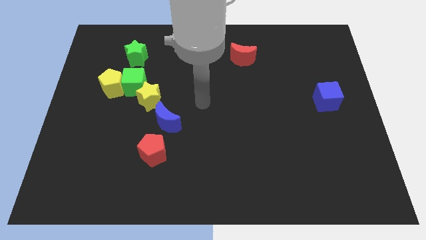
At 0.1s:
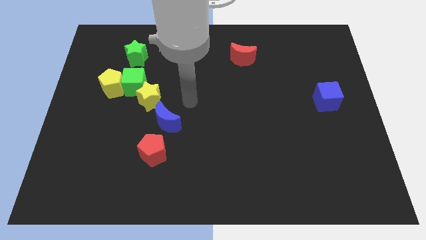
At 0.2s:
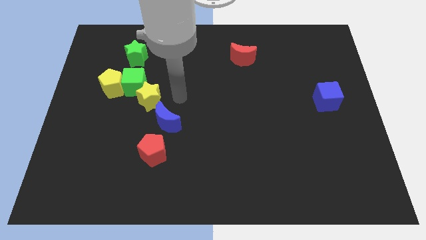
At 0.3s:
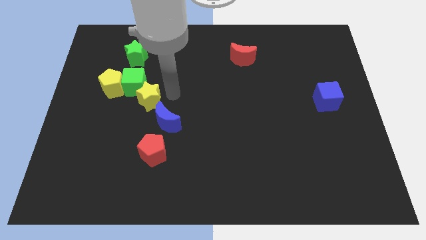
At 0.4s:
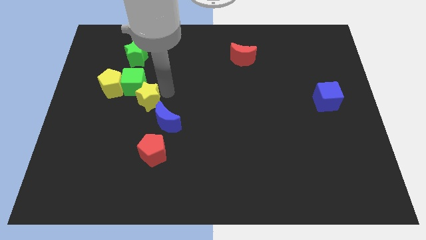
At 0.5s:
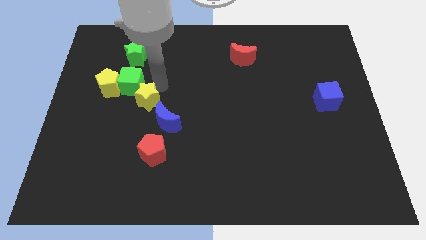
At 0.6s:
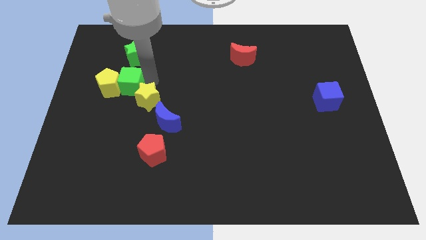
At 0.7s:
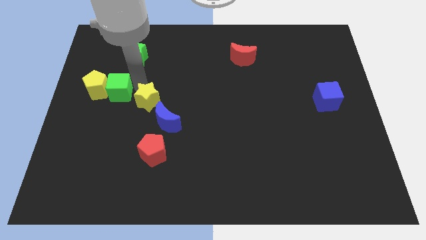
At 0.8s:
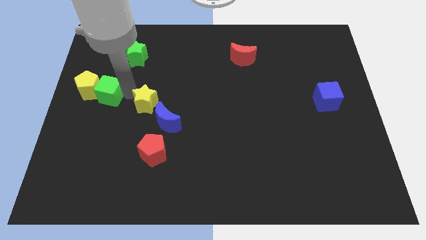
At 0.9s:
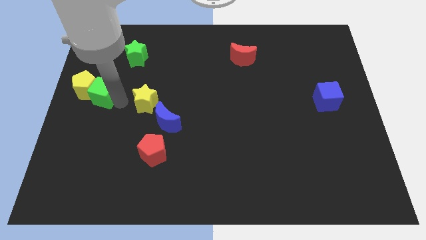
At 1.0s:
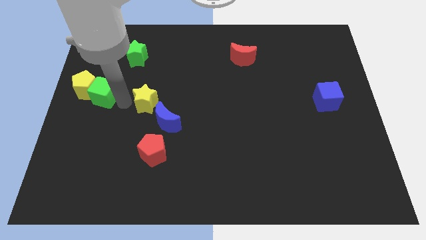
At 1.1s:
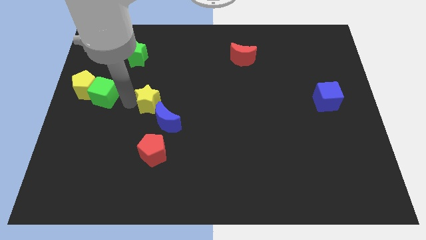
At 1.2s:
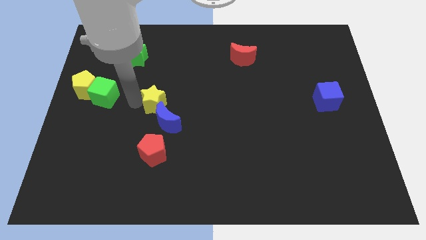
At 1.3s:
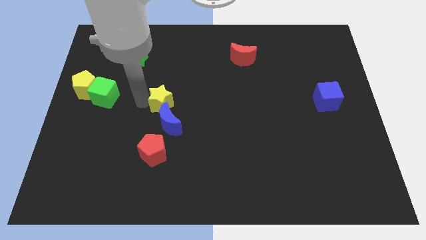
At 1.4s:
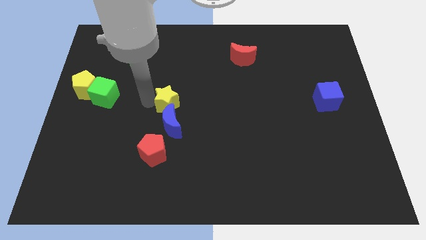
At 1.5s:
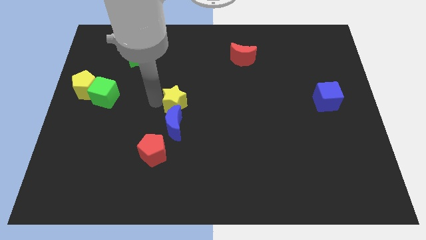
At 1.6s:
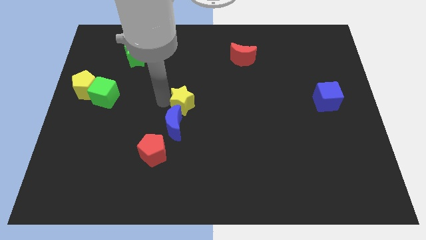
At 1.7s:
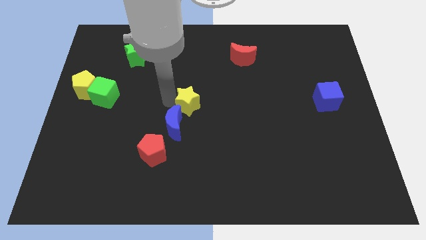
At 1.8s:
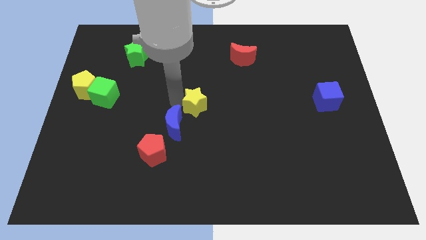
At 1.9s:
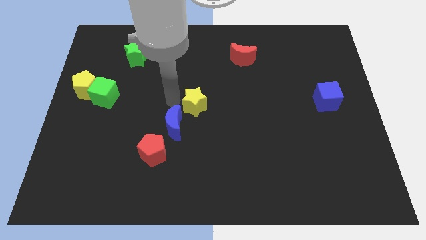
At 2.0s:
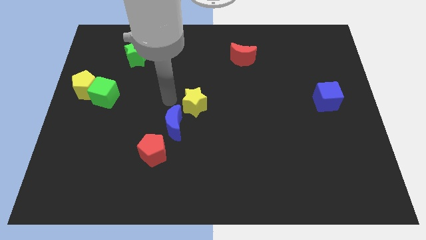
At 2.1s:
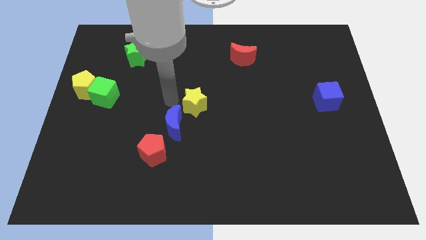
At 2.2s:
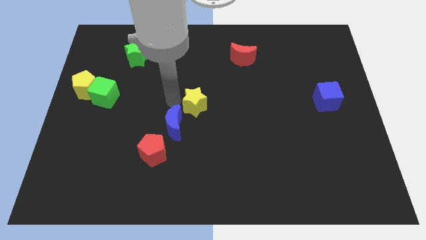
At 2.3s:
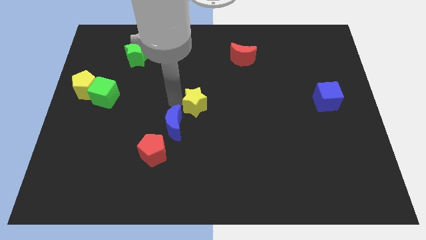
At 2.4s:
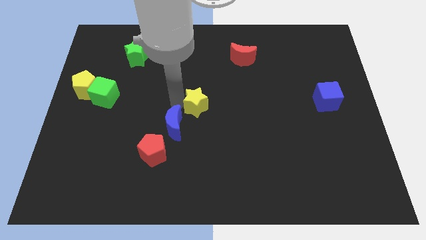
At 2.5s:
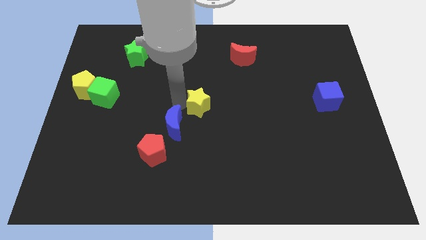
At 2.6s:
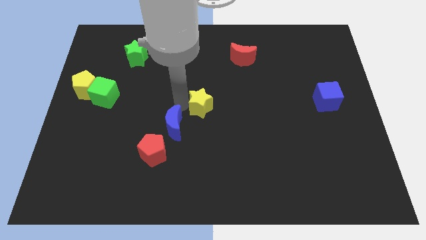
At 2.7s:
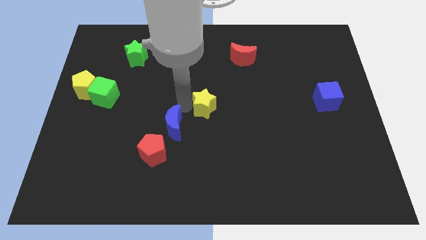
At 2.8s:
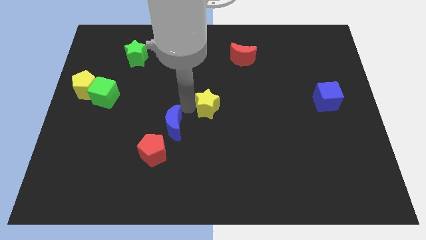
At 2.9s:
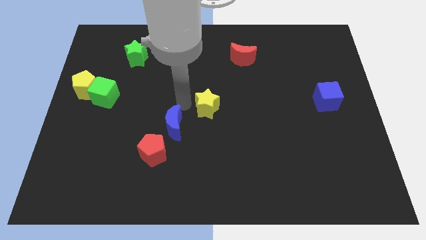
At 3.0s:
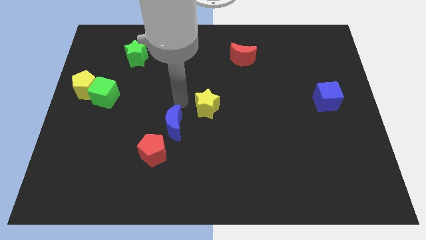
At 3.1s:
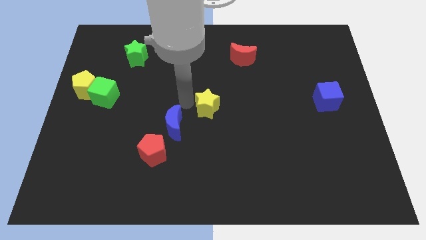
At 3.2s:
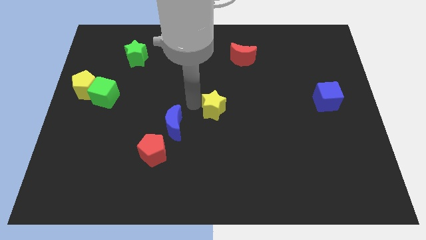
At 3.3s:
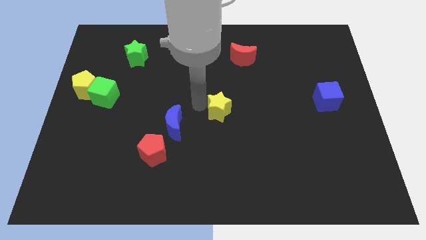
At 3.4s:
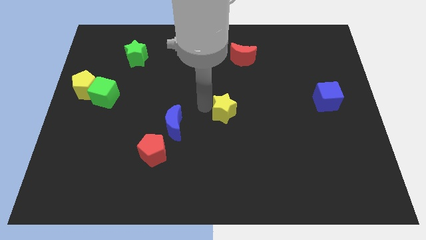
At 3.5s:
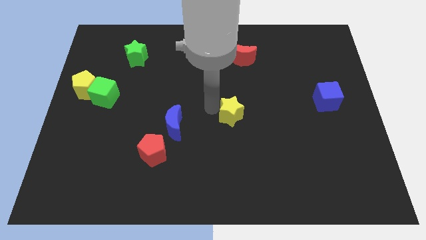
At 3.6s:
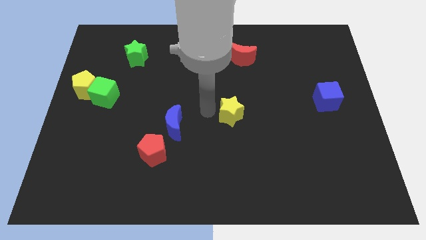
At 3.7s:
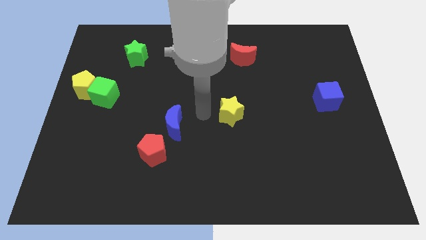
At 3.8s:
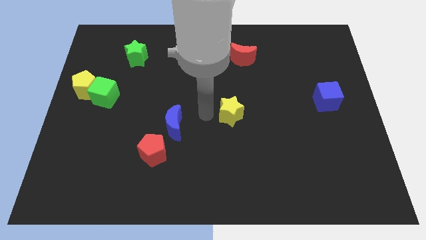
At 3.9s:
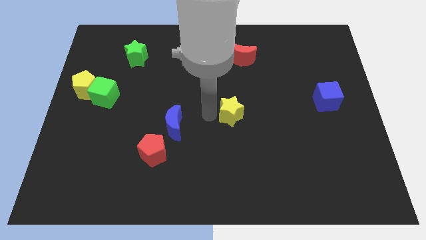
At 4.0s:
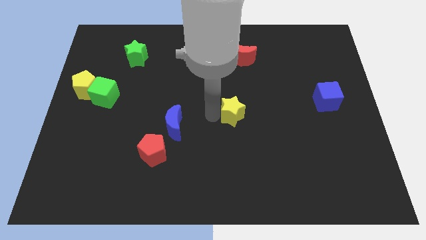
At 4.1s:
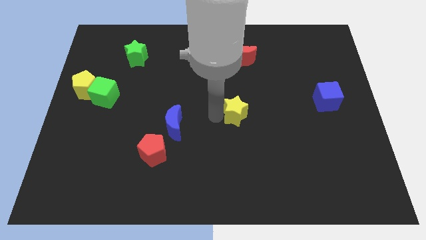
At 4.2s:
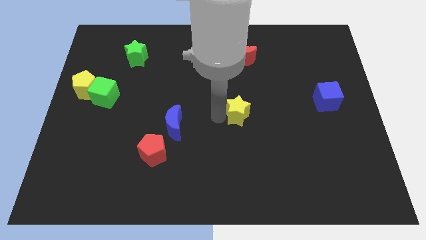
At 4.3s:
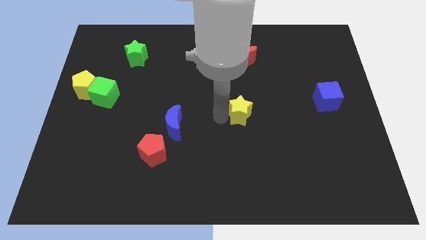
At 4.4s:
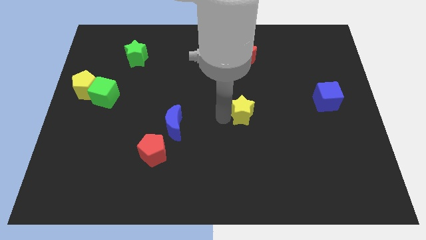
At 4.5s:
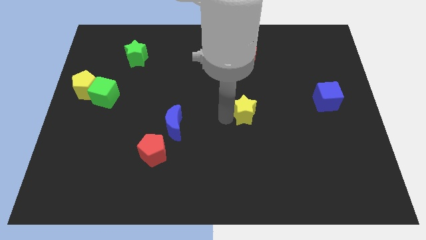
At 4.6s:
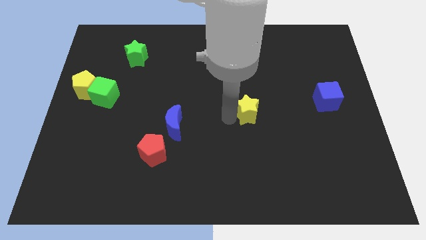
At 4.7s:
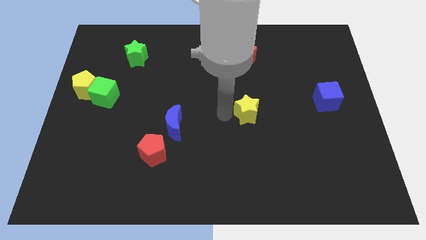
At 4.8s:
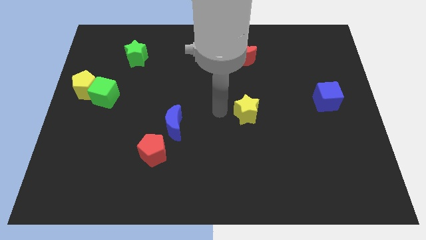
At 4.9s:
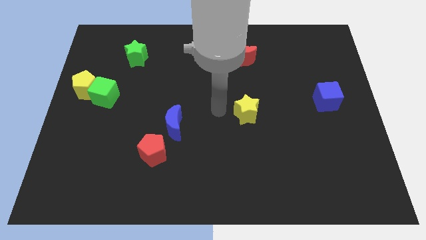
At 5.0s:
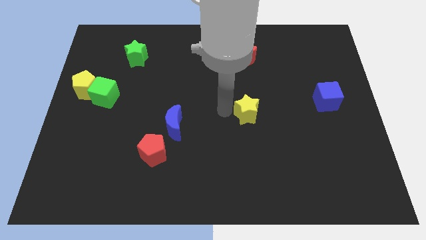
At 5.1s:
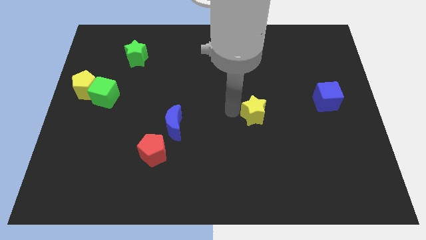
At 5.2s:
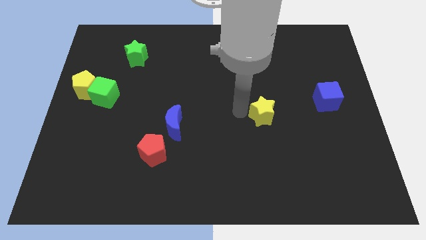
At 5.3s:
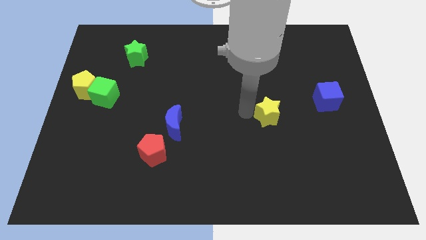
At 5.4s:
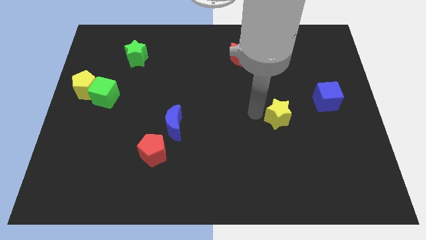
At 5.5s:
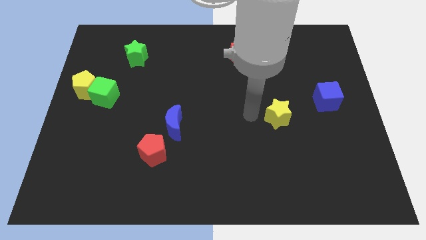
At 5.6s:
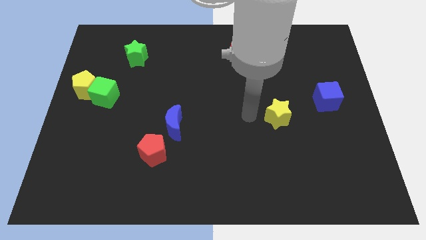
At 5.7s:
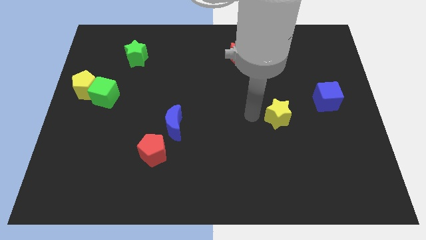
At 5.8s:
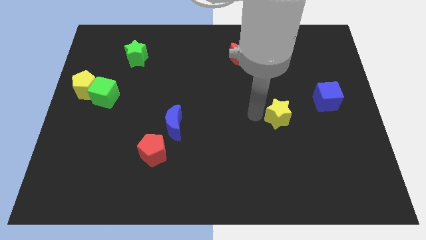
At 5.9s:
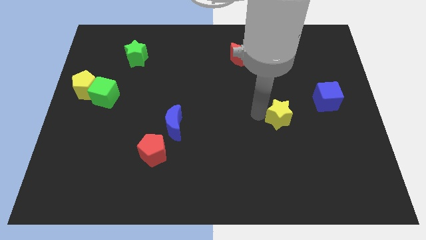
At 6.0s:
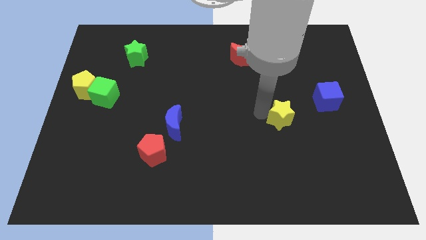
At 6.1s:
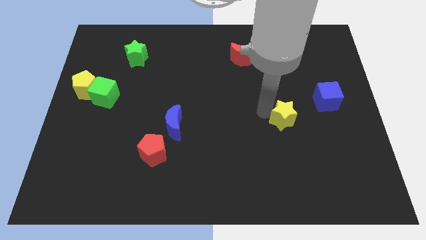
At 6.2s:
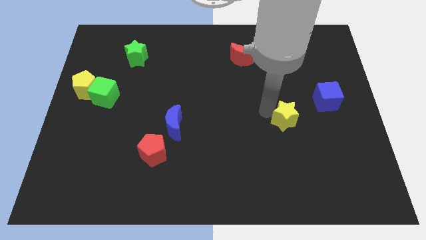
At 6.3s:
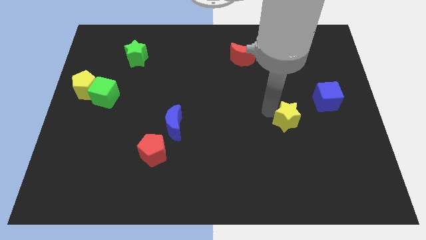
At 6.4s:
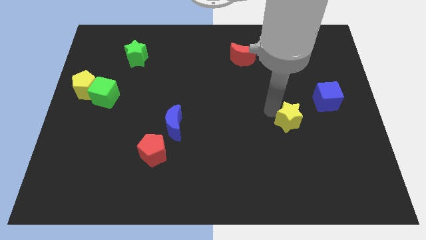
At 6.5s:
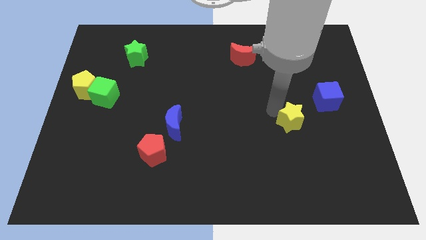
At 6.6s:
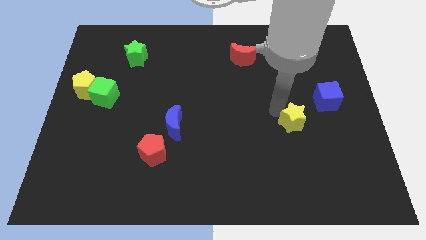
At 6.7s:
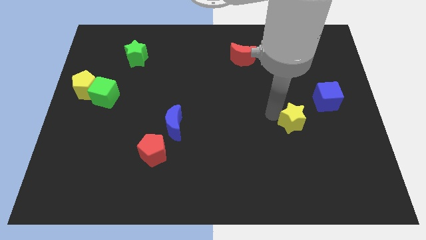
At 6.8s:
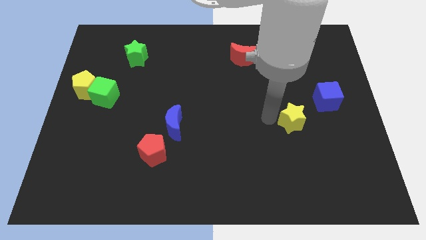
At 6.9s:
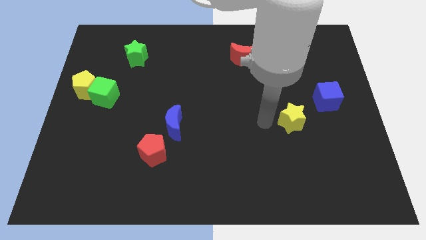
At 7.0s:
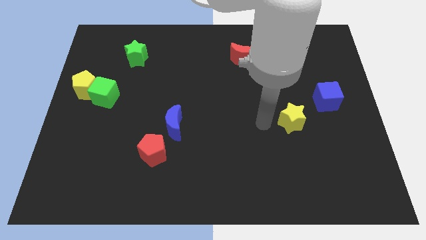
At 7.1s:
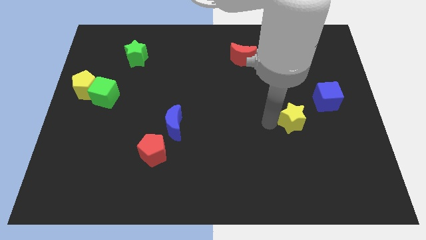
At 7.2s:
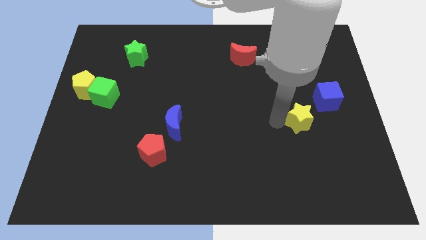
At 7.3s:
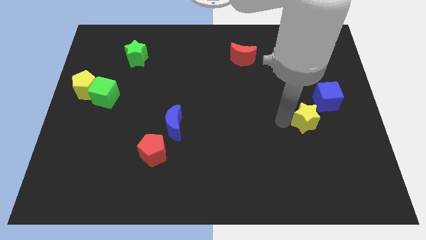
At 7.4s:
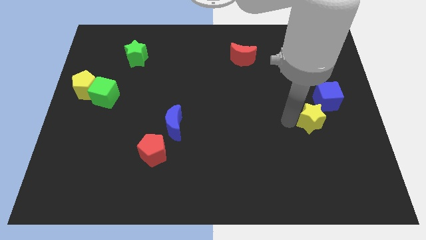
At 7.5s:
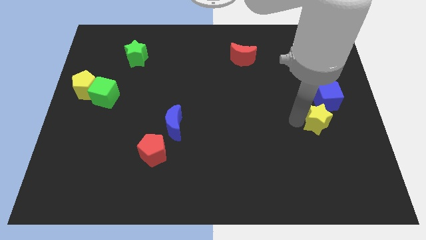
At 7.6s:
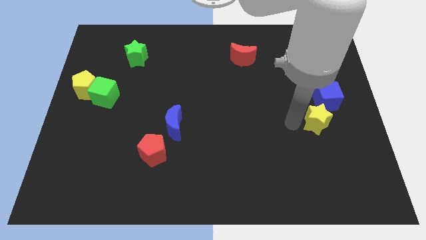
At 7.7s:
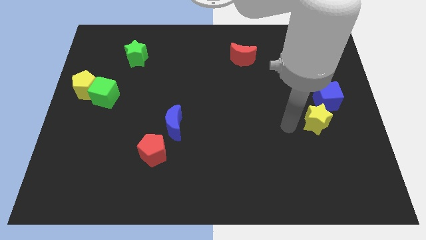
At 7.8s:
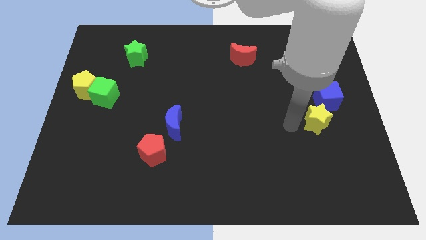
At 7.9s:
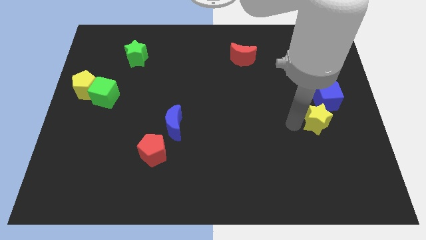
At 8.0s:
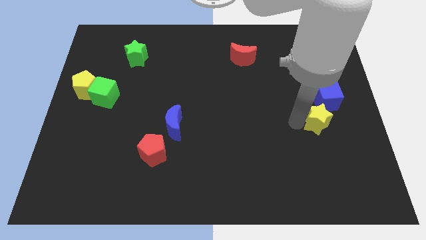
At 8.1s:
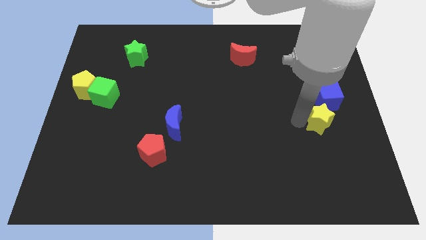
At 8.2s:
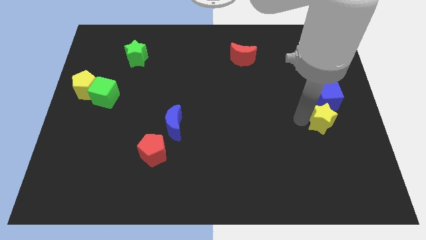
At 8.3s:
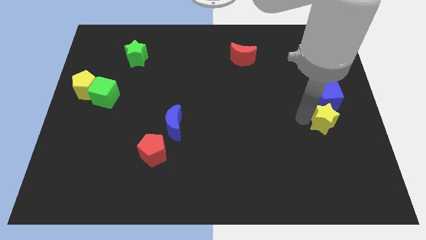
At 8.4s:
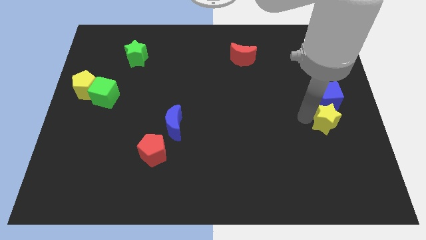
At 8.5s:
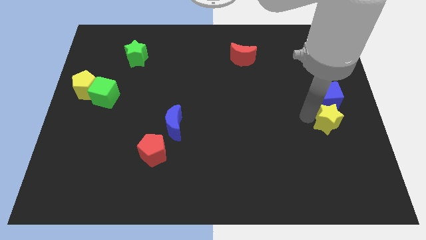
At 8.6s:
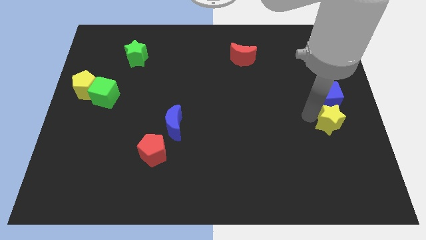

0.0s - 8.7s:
slide the yellow star to the right side
